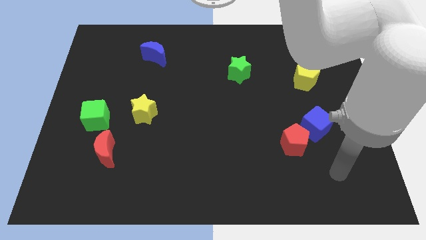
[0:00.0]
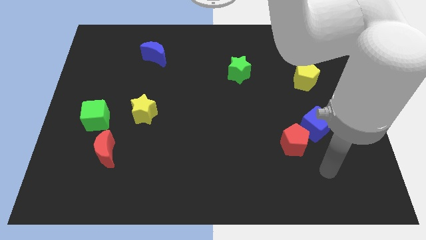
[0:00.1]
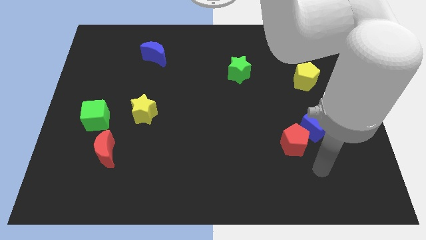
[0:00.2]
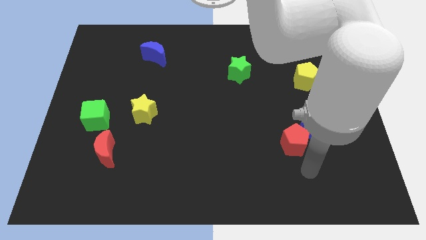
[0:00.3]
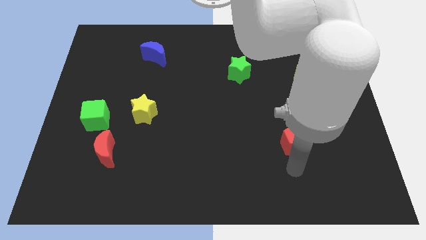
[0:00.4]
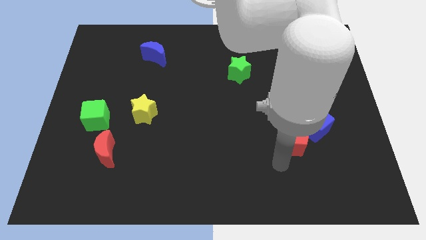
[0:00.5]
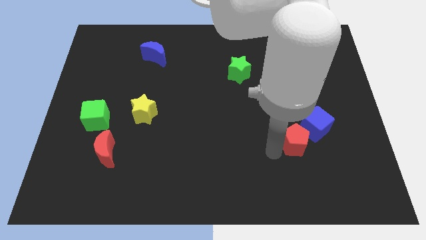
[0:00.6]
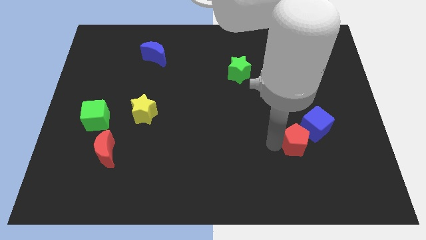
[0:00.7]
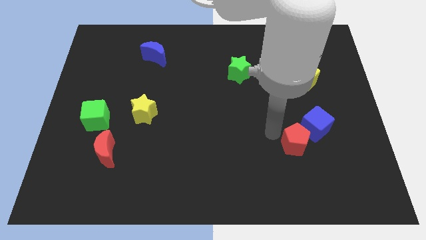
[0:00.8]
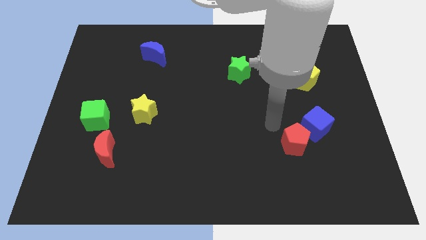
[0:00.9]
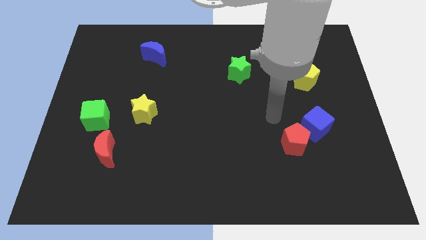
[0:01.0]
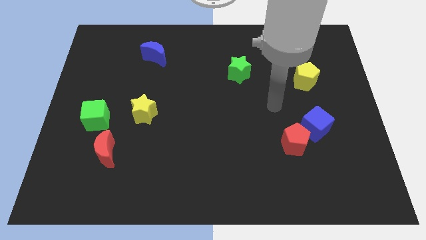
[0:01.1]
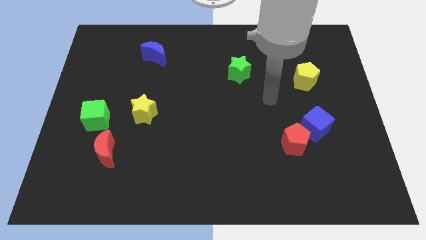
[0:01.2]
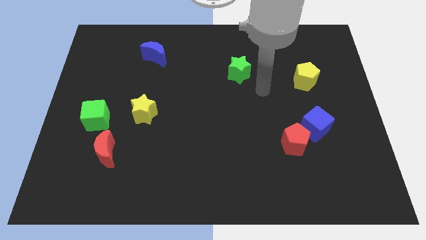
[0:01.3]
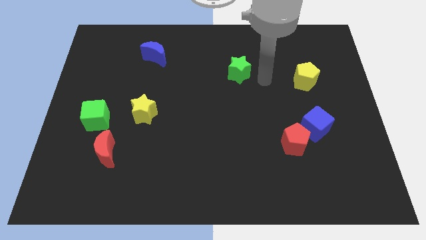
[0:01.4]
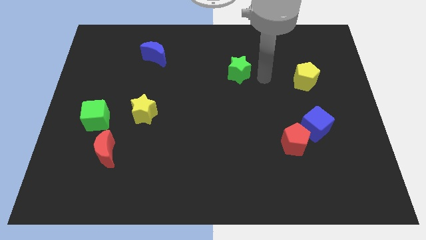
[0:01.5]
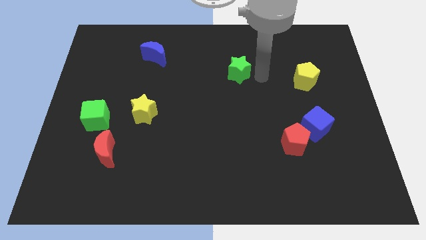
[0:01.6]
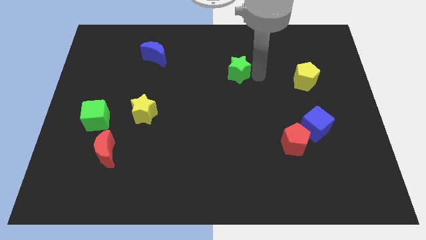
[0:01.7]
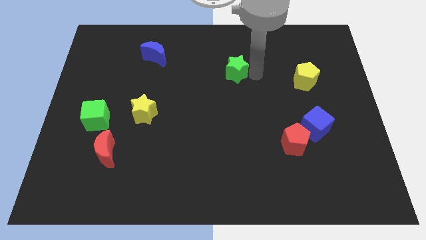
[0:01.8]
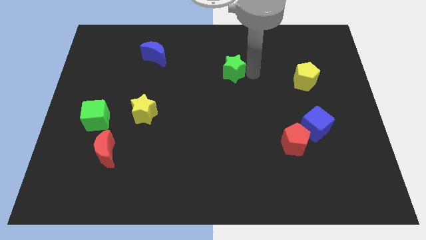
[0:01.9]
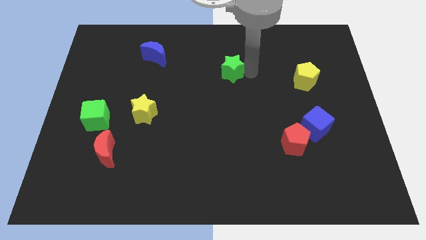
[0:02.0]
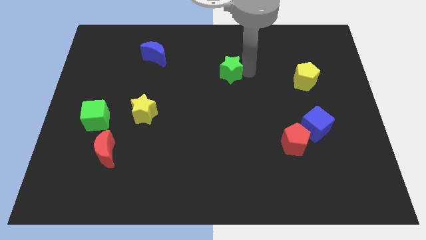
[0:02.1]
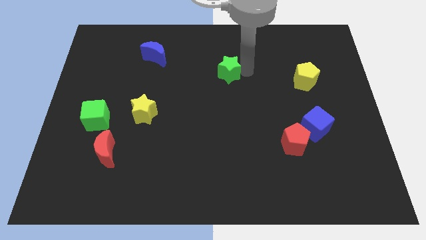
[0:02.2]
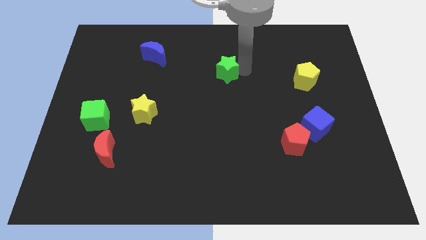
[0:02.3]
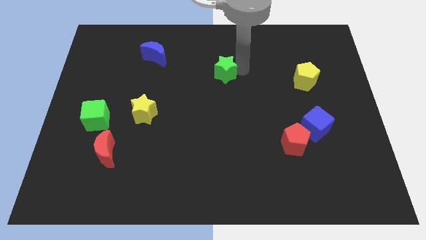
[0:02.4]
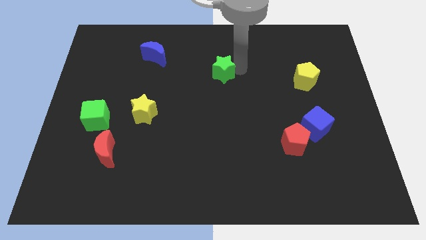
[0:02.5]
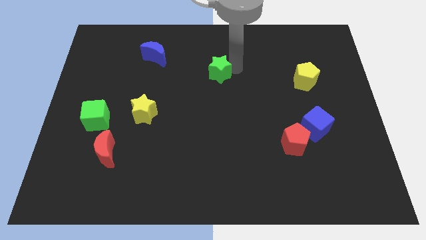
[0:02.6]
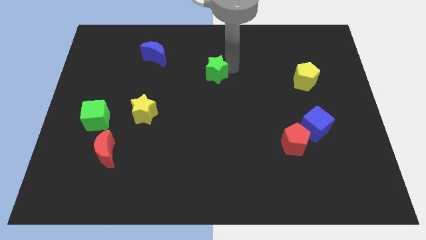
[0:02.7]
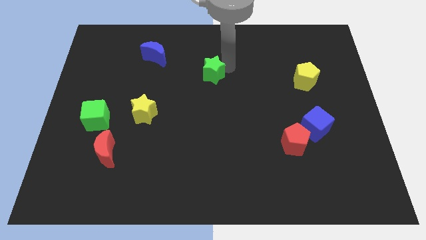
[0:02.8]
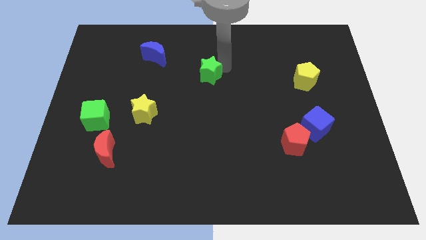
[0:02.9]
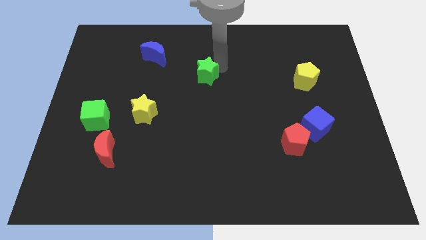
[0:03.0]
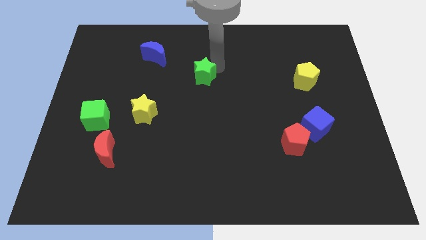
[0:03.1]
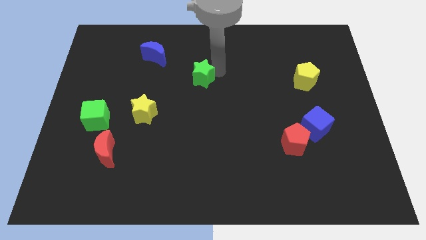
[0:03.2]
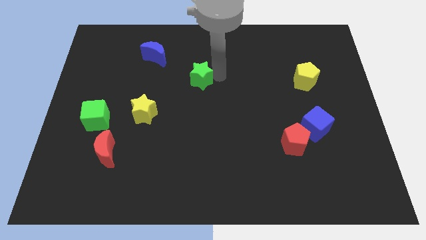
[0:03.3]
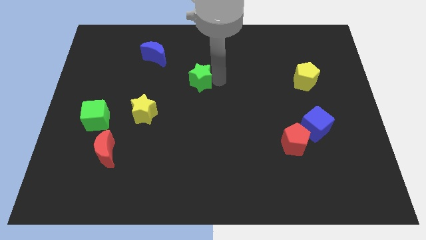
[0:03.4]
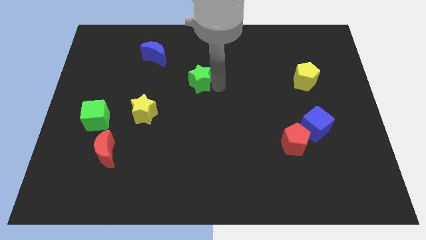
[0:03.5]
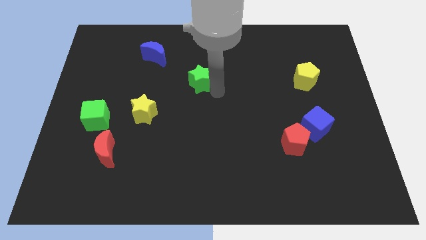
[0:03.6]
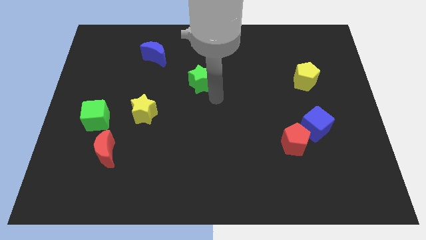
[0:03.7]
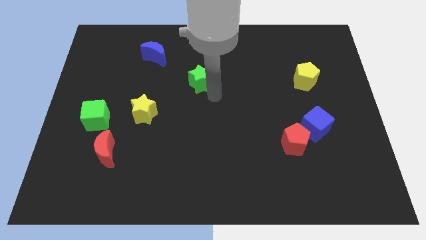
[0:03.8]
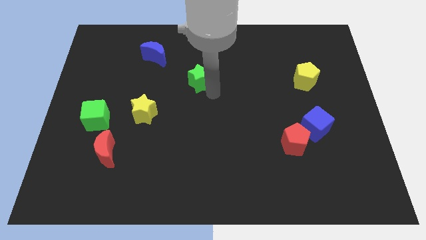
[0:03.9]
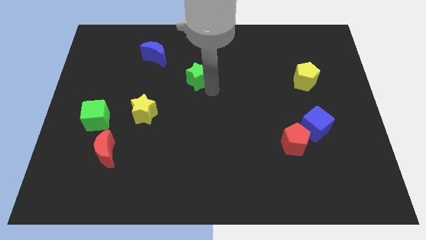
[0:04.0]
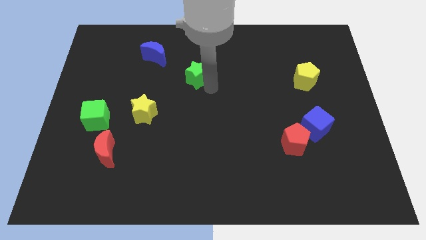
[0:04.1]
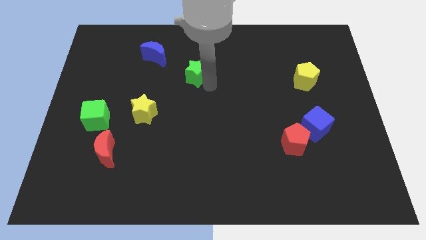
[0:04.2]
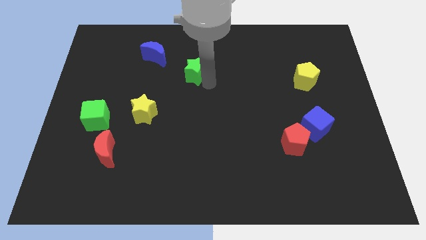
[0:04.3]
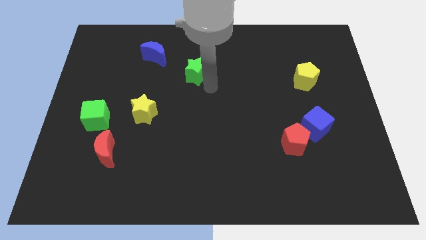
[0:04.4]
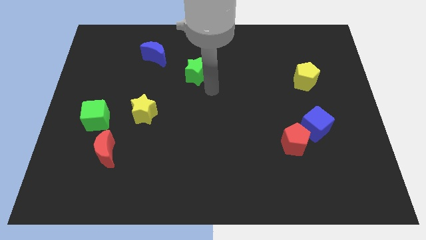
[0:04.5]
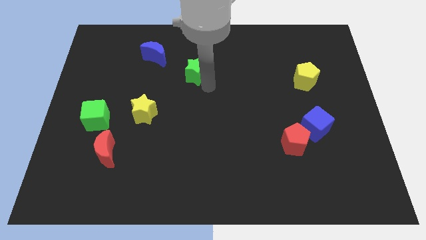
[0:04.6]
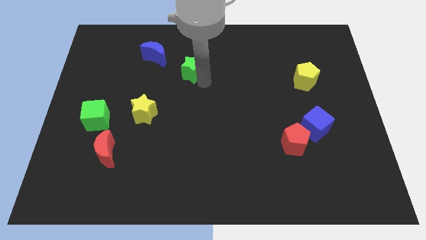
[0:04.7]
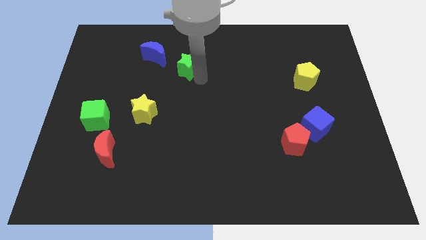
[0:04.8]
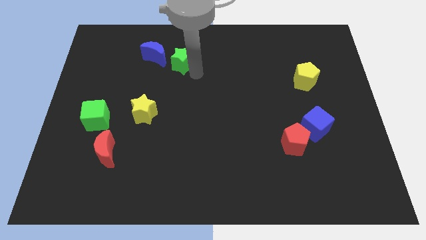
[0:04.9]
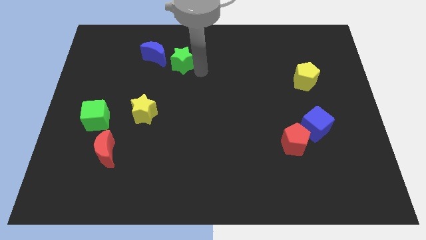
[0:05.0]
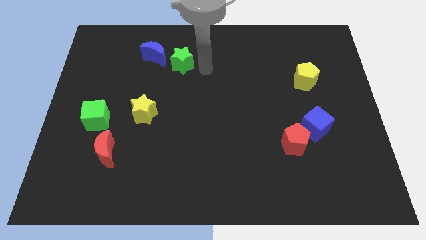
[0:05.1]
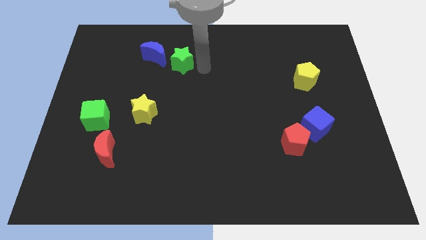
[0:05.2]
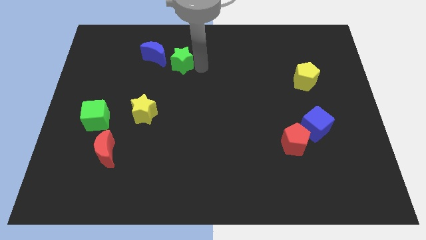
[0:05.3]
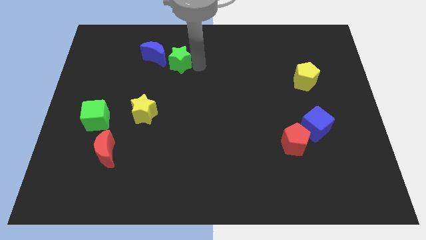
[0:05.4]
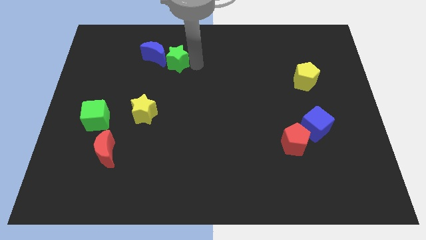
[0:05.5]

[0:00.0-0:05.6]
move the green star to the blue moon

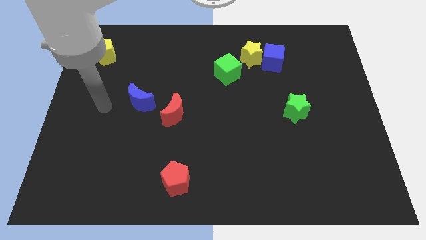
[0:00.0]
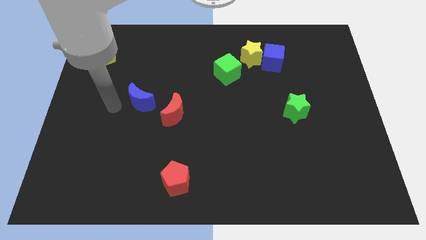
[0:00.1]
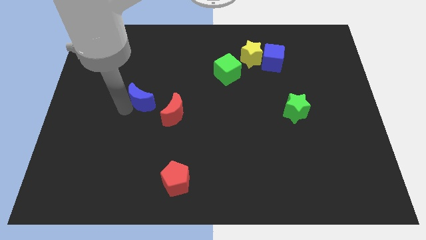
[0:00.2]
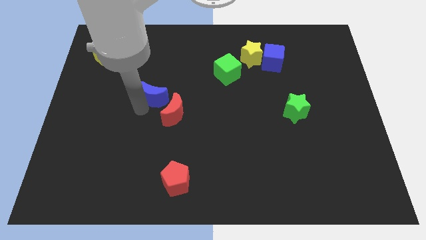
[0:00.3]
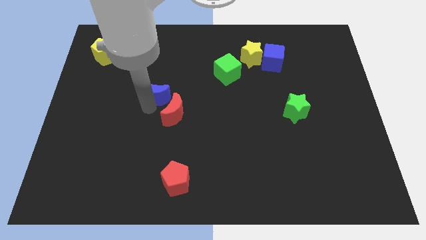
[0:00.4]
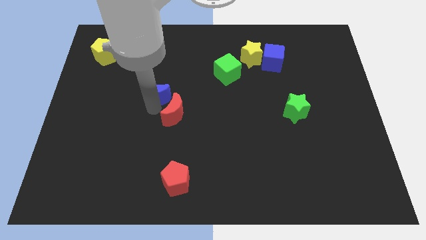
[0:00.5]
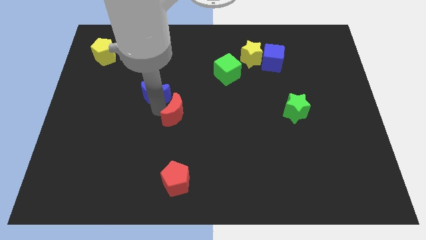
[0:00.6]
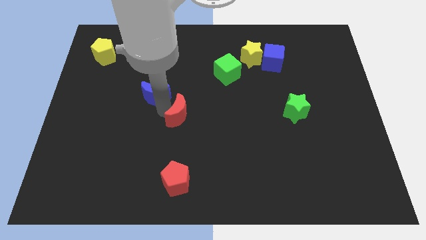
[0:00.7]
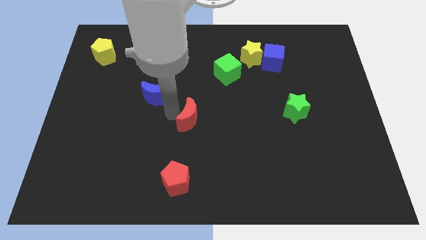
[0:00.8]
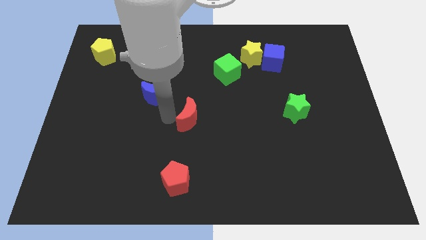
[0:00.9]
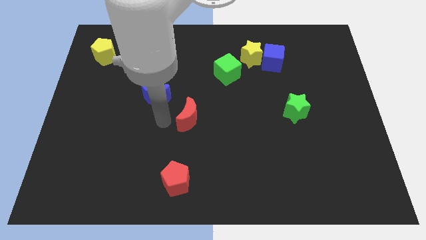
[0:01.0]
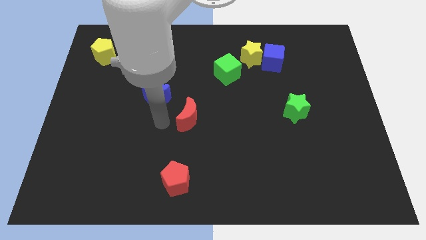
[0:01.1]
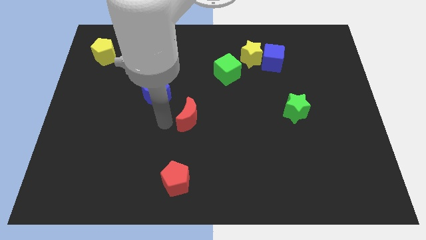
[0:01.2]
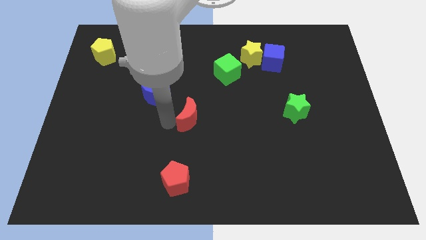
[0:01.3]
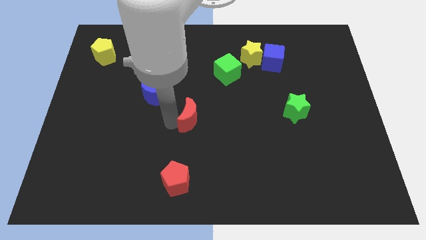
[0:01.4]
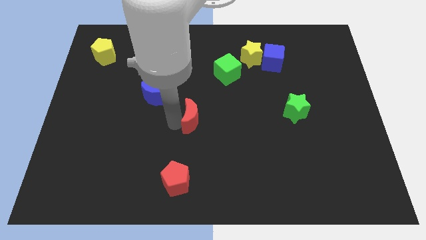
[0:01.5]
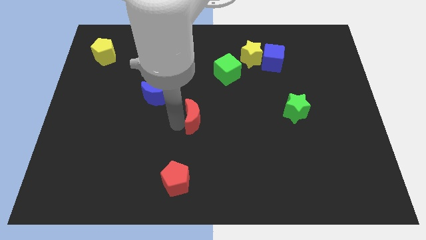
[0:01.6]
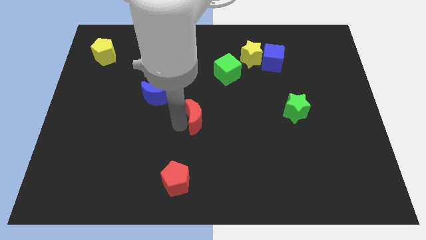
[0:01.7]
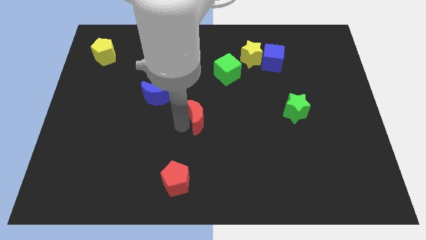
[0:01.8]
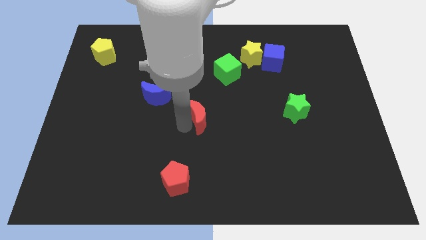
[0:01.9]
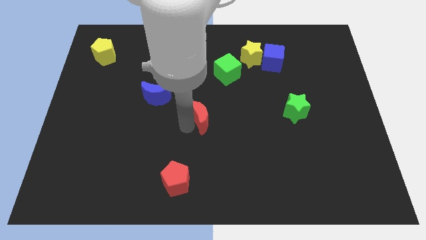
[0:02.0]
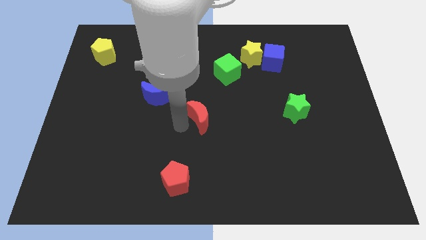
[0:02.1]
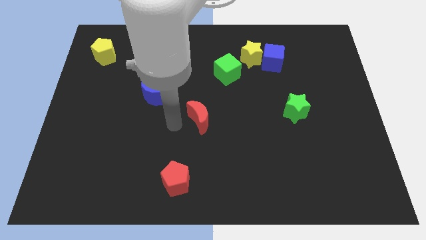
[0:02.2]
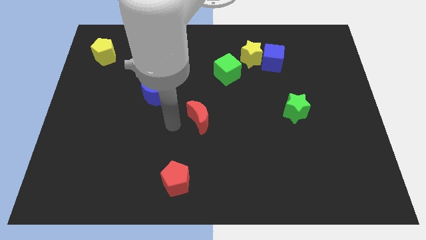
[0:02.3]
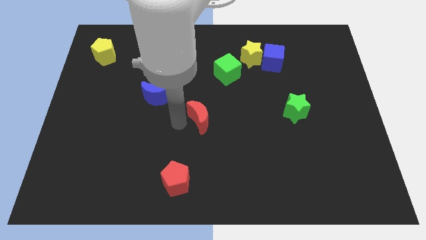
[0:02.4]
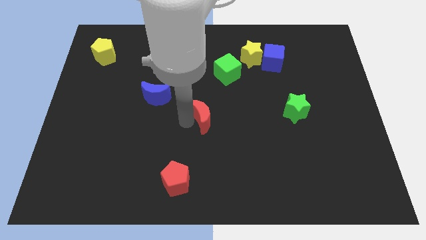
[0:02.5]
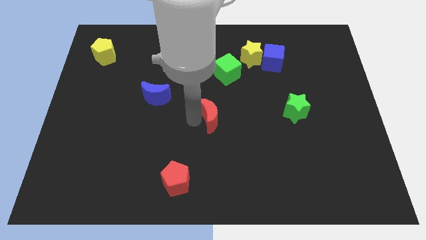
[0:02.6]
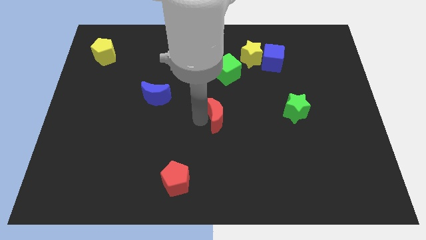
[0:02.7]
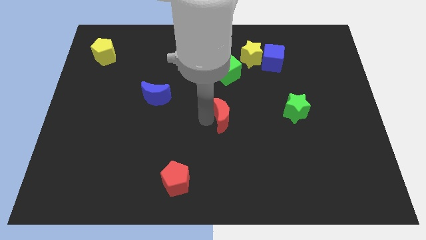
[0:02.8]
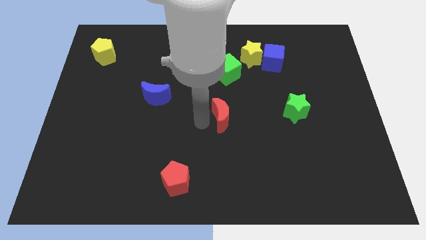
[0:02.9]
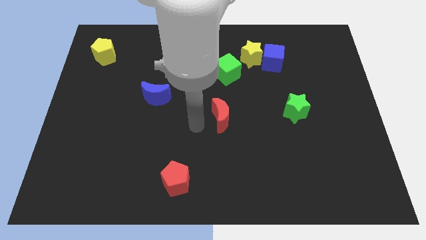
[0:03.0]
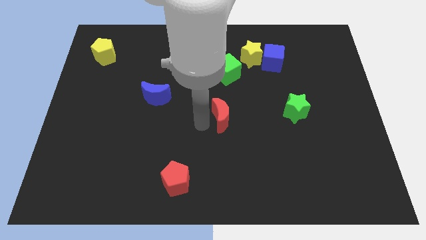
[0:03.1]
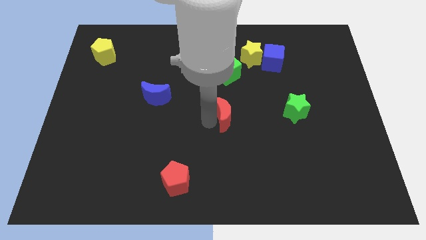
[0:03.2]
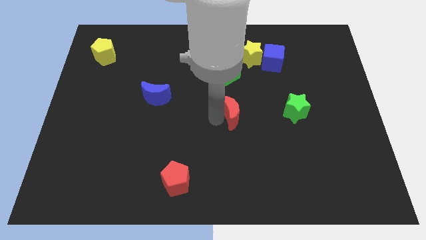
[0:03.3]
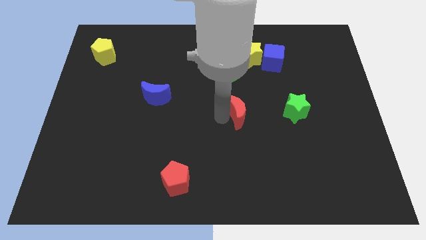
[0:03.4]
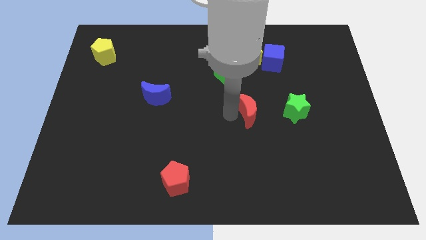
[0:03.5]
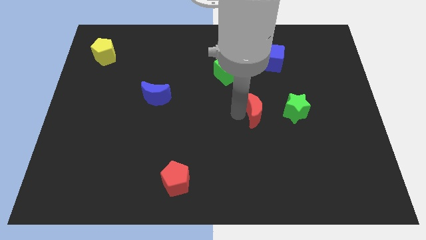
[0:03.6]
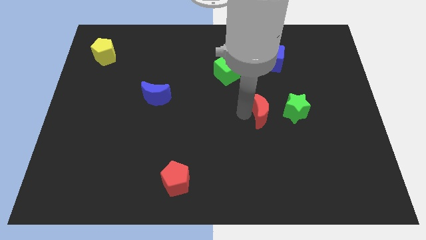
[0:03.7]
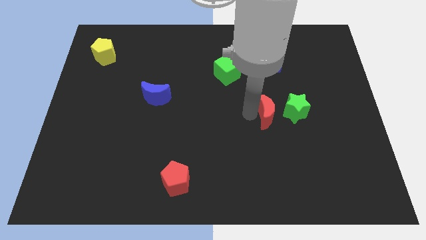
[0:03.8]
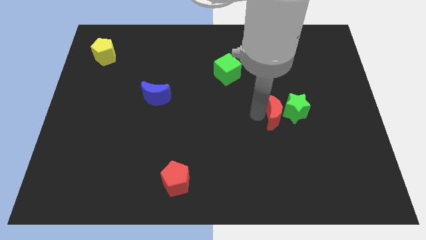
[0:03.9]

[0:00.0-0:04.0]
put the red moon towards the green star
